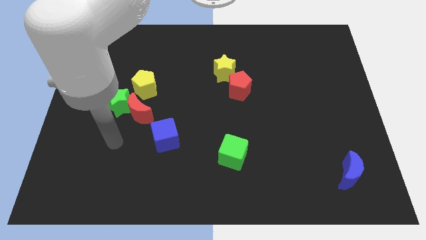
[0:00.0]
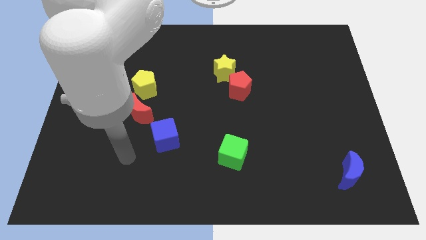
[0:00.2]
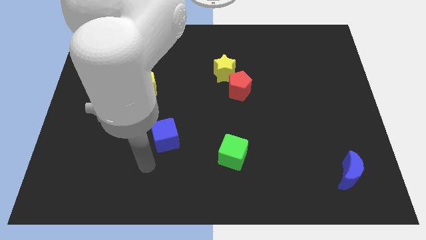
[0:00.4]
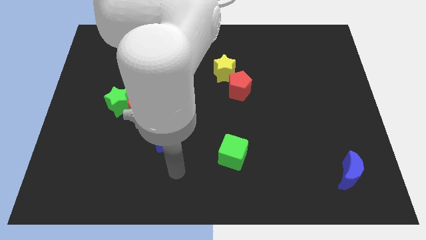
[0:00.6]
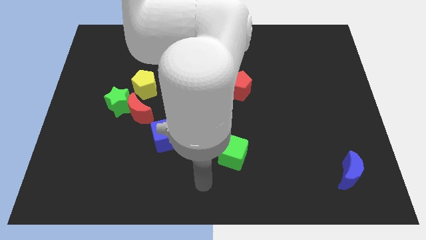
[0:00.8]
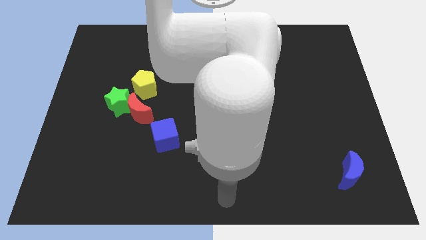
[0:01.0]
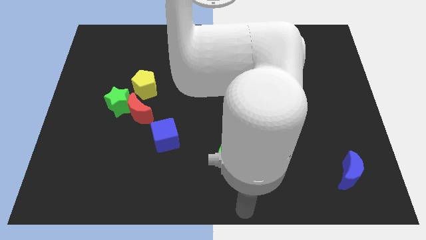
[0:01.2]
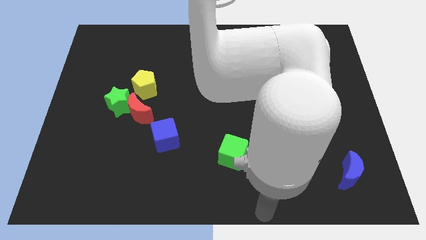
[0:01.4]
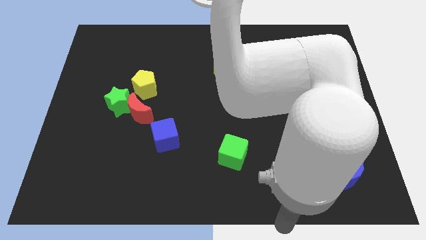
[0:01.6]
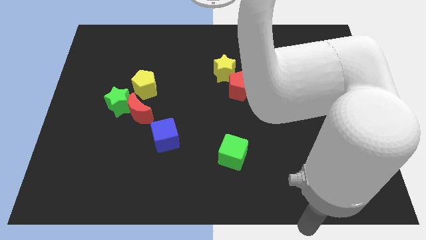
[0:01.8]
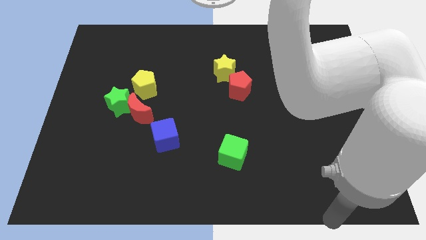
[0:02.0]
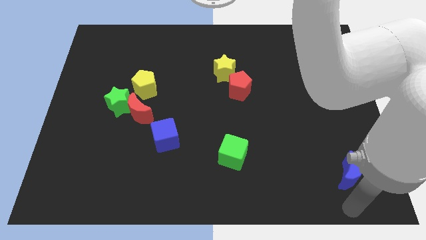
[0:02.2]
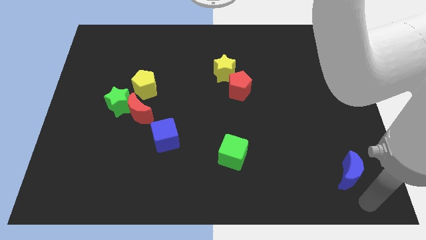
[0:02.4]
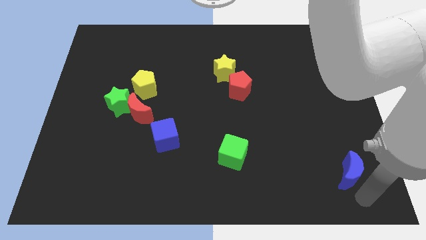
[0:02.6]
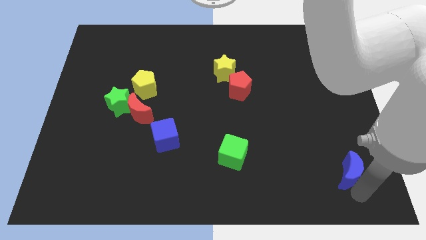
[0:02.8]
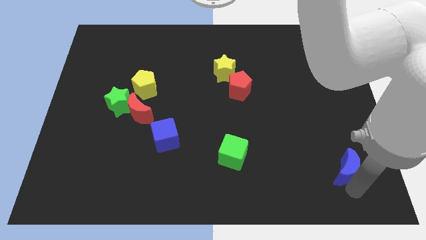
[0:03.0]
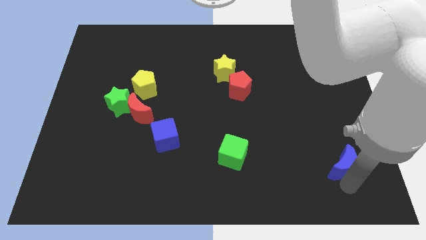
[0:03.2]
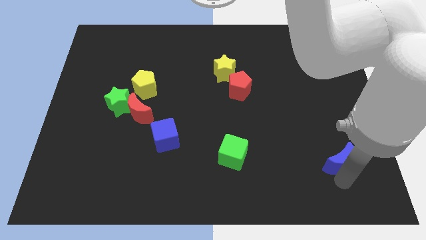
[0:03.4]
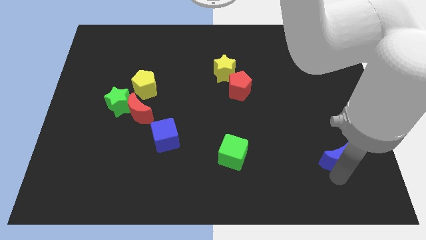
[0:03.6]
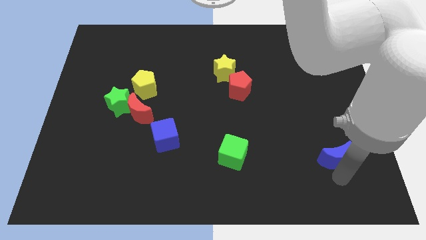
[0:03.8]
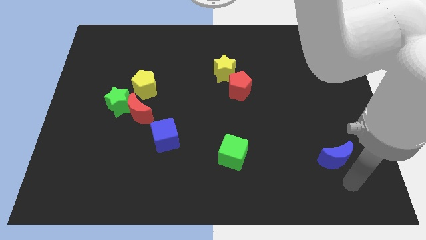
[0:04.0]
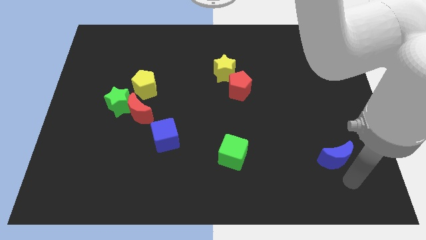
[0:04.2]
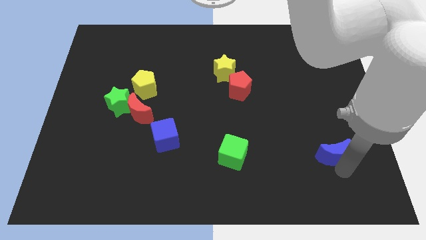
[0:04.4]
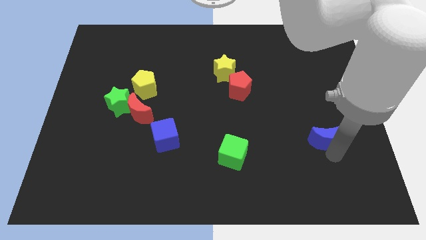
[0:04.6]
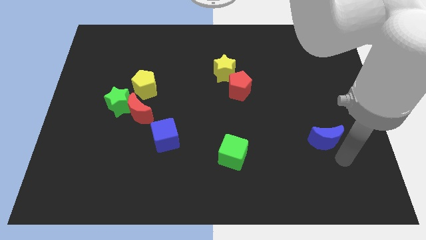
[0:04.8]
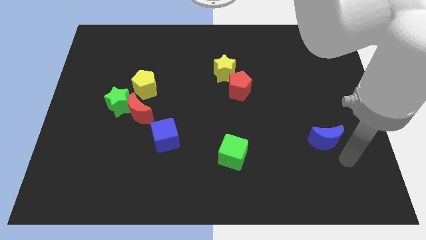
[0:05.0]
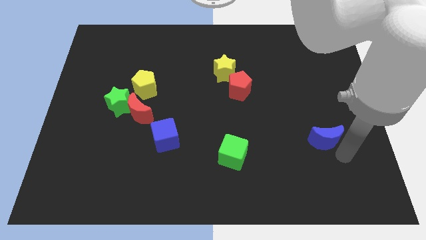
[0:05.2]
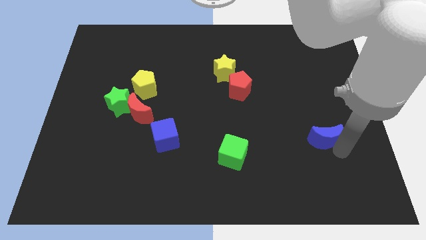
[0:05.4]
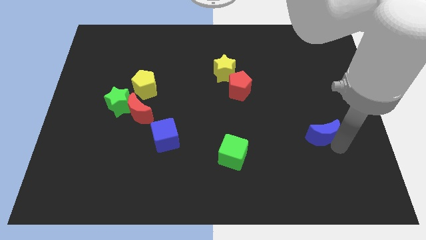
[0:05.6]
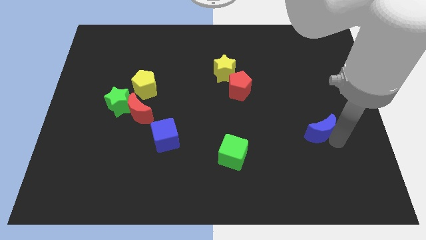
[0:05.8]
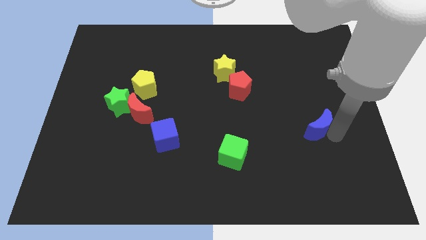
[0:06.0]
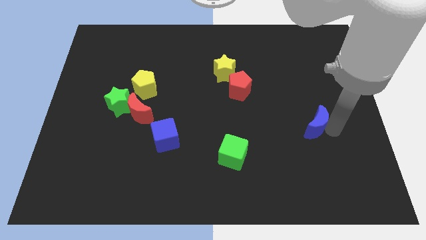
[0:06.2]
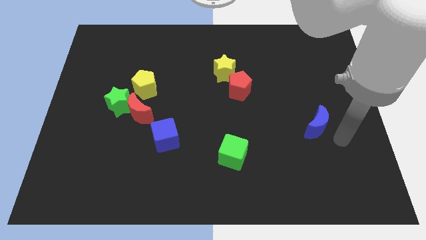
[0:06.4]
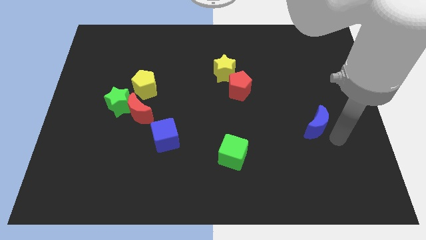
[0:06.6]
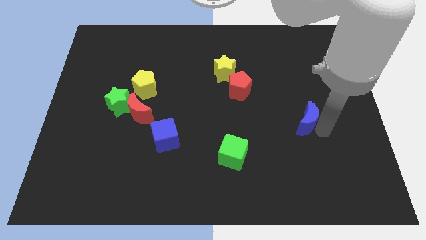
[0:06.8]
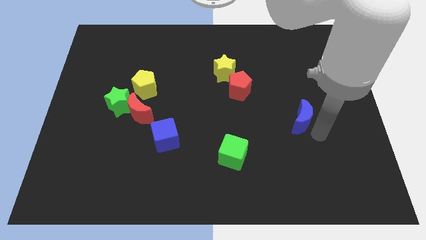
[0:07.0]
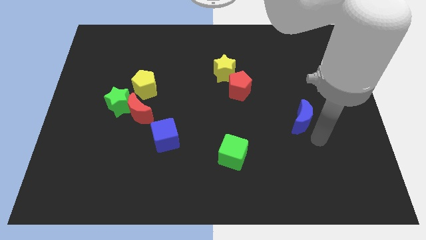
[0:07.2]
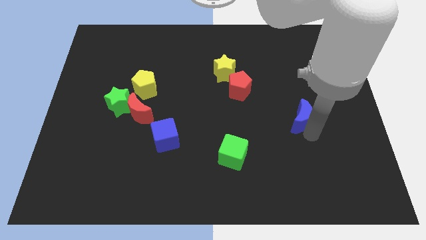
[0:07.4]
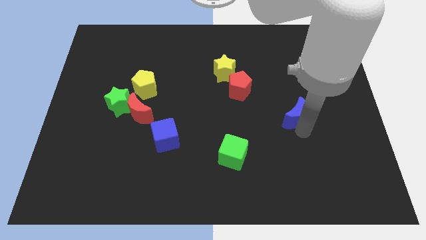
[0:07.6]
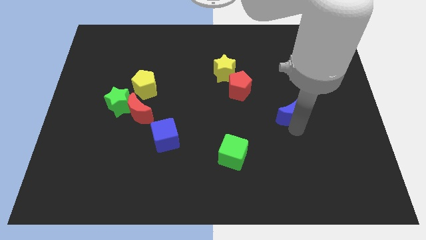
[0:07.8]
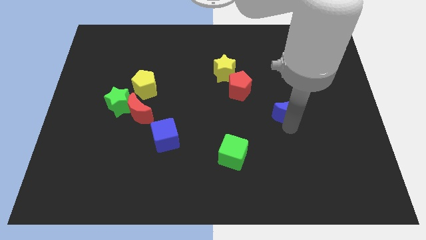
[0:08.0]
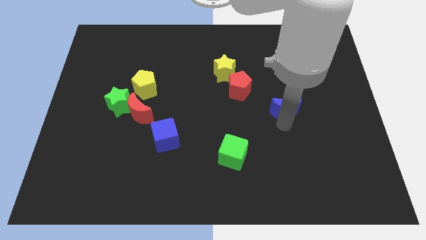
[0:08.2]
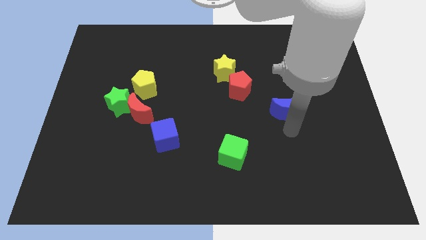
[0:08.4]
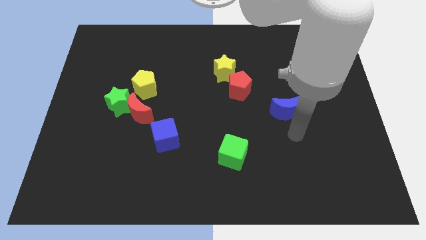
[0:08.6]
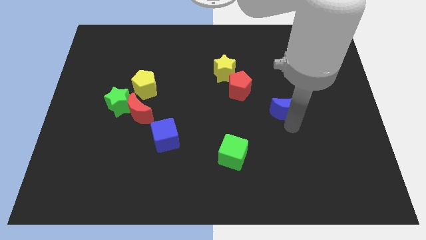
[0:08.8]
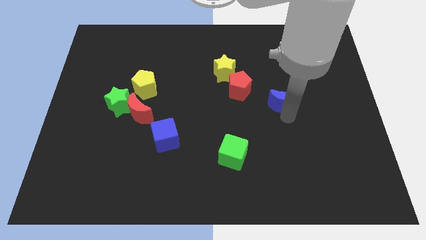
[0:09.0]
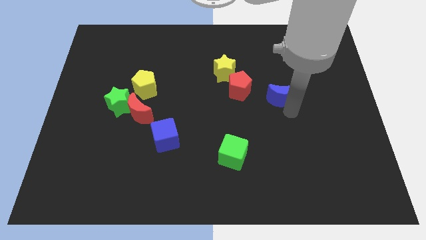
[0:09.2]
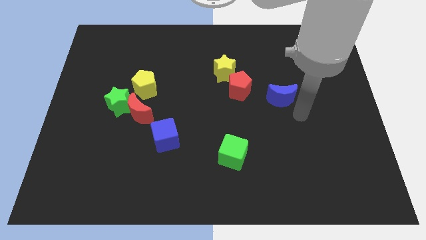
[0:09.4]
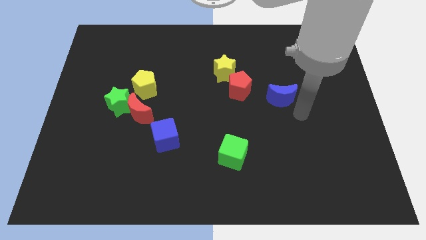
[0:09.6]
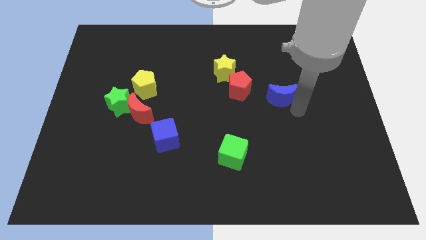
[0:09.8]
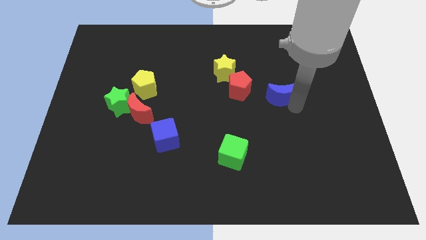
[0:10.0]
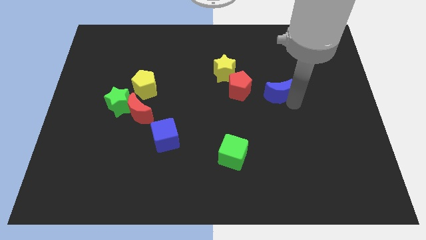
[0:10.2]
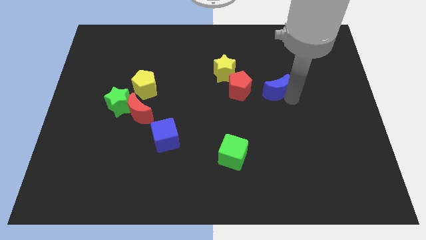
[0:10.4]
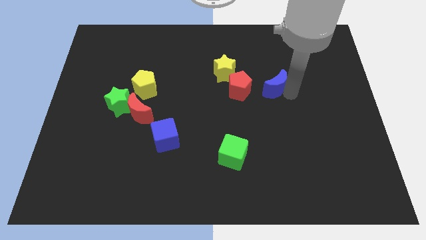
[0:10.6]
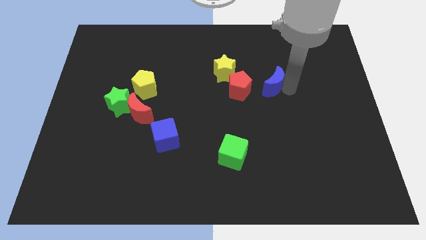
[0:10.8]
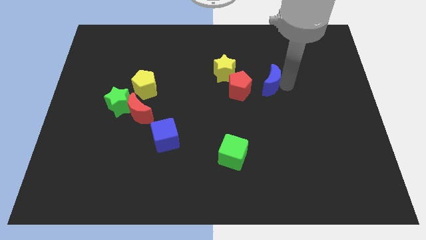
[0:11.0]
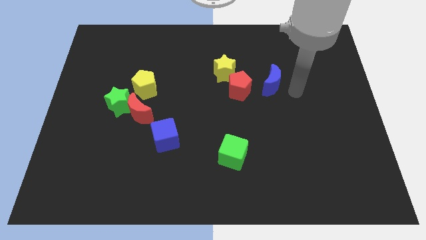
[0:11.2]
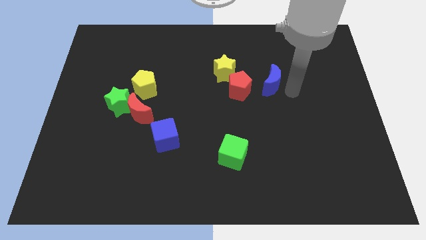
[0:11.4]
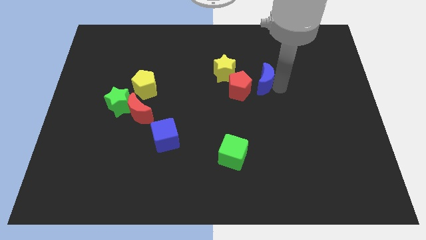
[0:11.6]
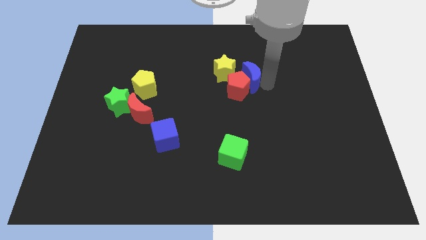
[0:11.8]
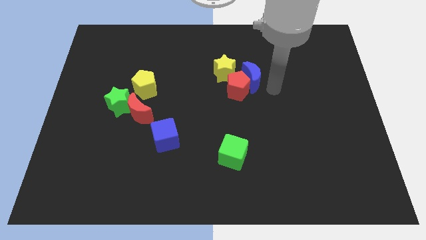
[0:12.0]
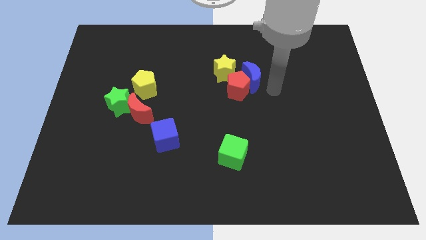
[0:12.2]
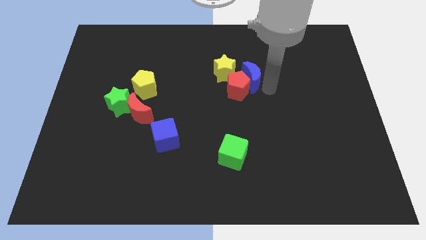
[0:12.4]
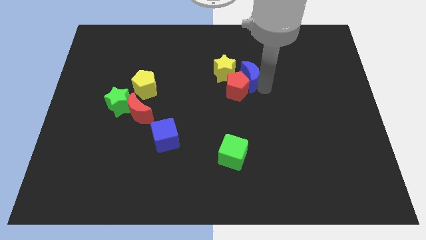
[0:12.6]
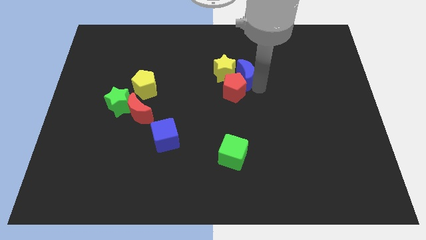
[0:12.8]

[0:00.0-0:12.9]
move the blue moon close to the yellow star
